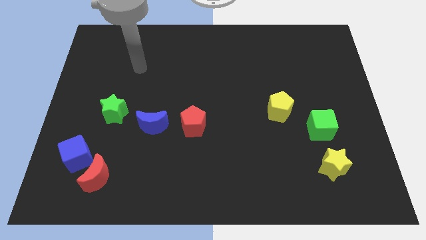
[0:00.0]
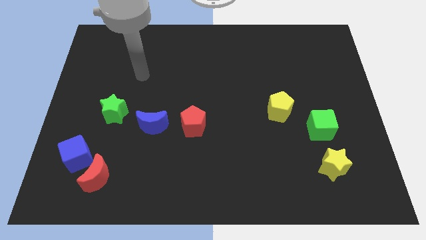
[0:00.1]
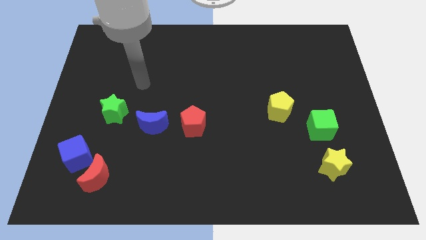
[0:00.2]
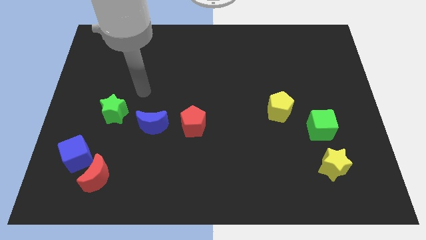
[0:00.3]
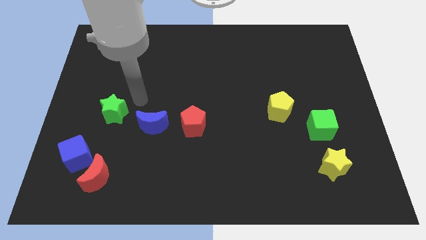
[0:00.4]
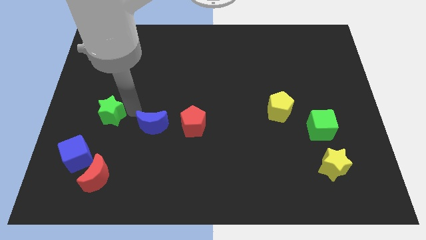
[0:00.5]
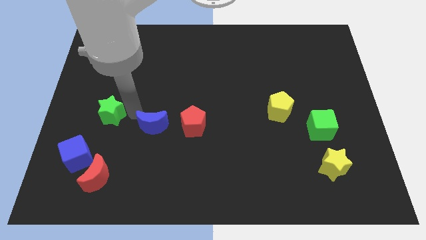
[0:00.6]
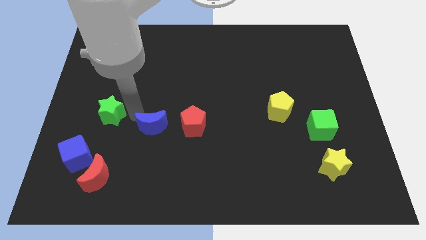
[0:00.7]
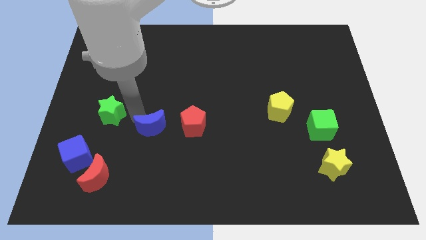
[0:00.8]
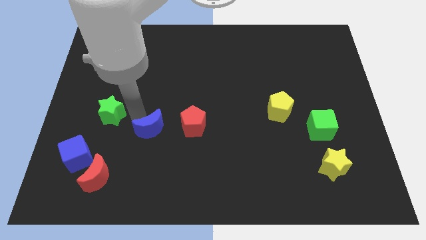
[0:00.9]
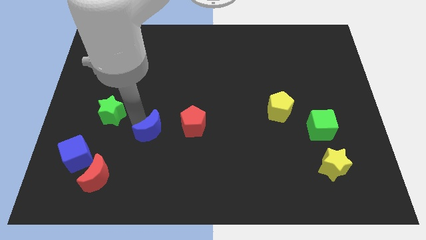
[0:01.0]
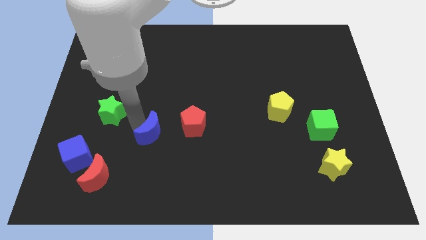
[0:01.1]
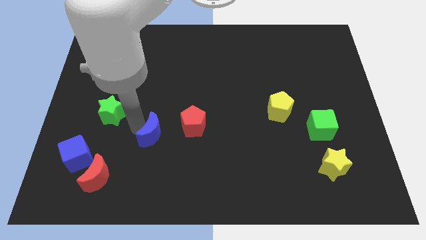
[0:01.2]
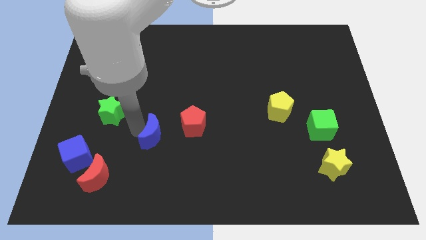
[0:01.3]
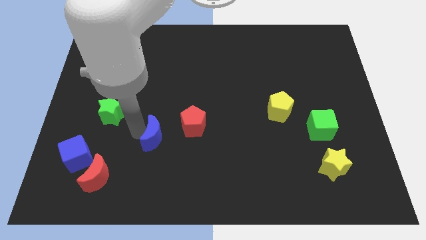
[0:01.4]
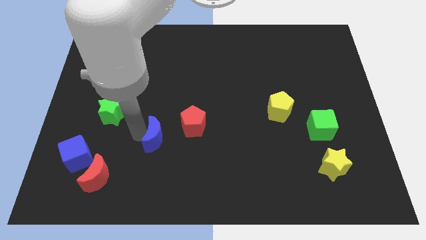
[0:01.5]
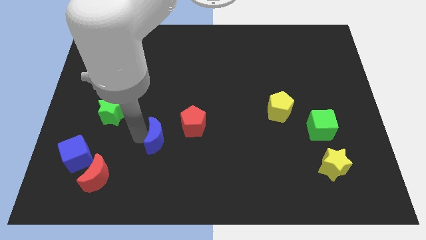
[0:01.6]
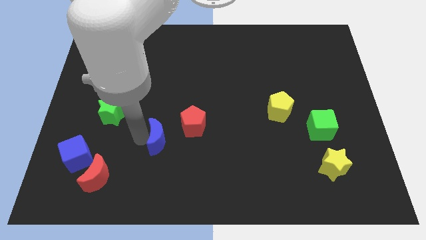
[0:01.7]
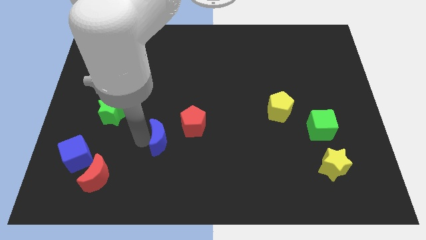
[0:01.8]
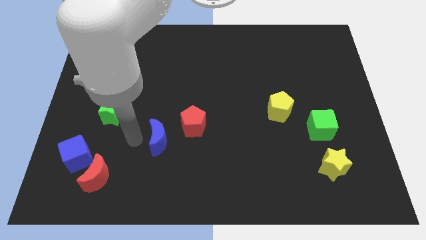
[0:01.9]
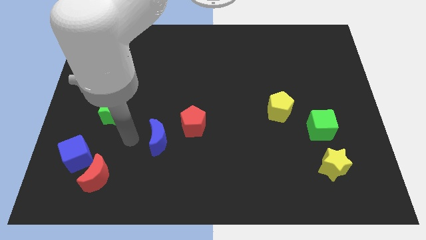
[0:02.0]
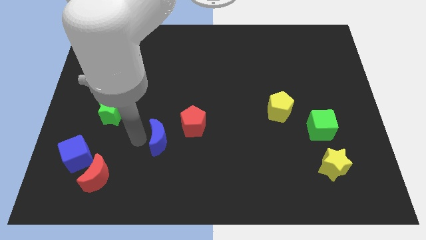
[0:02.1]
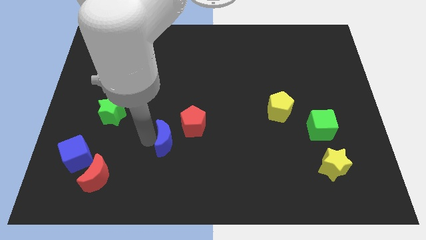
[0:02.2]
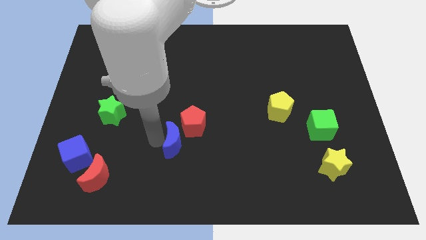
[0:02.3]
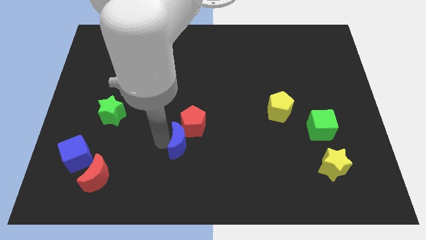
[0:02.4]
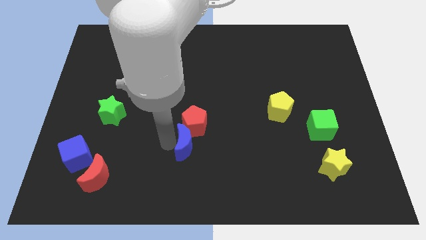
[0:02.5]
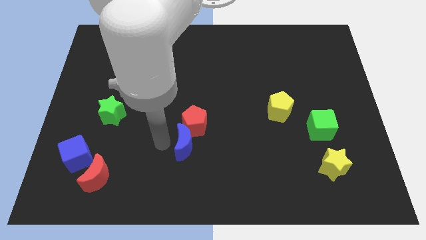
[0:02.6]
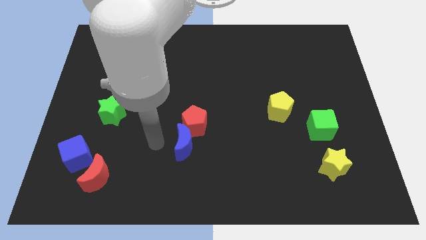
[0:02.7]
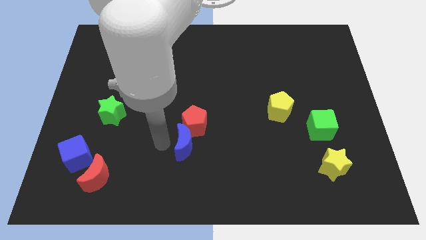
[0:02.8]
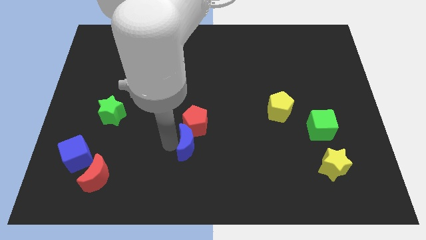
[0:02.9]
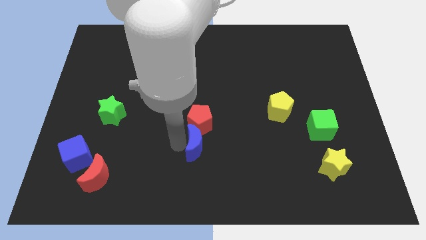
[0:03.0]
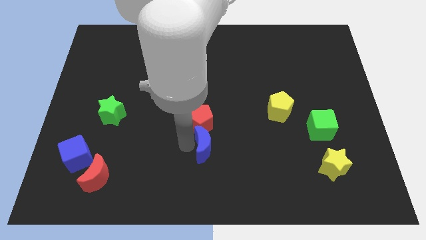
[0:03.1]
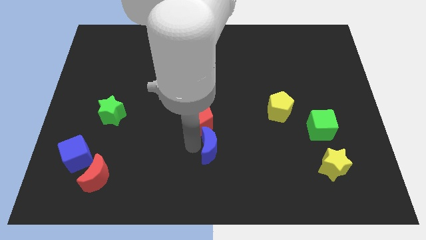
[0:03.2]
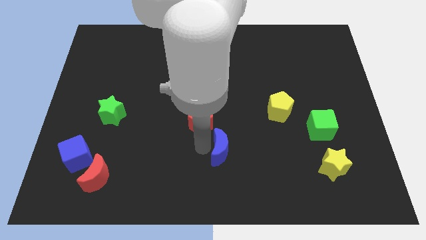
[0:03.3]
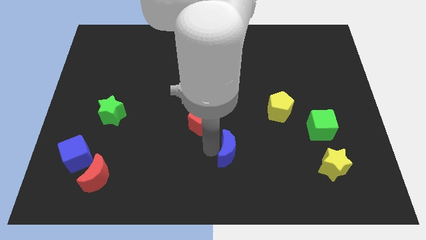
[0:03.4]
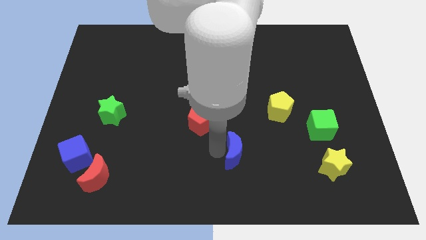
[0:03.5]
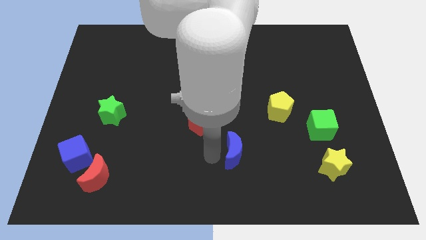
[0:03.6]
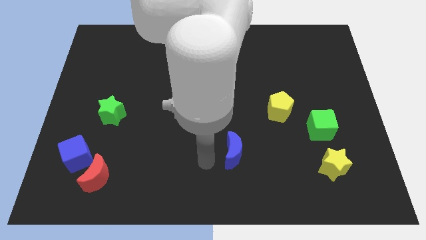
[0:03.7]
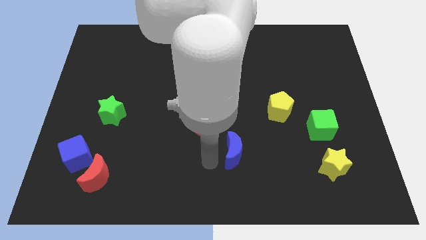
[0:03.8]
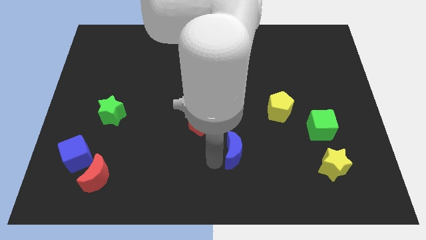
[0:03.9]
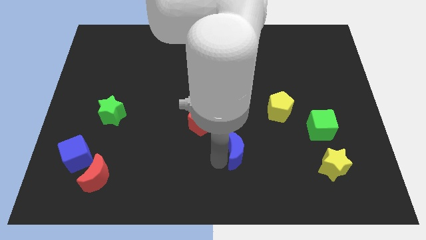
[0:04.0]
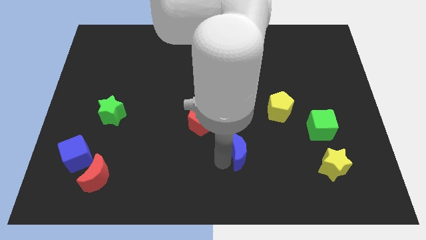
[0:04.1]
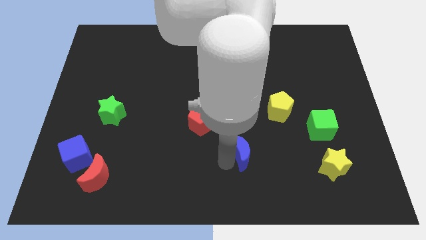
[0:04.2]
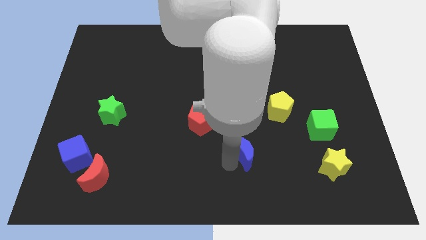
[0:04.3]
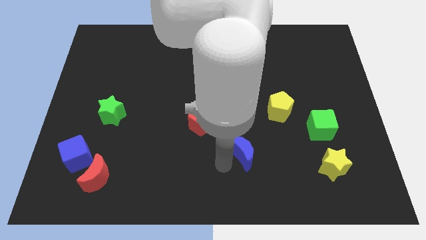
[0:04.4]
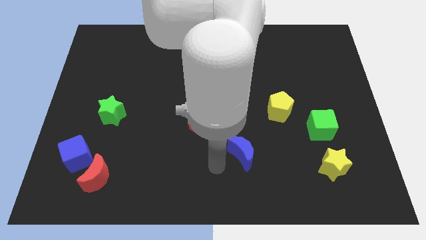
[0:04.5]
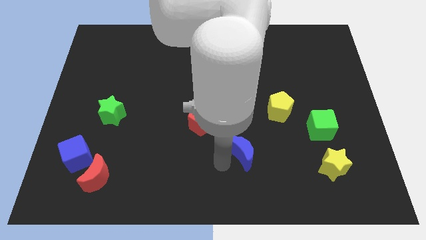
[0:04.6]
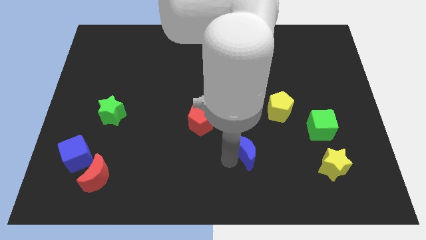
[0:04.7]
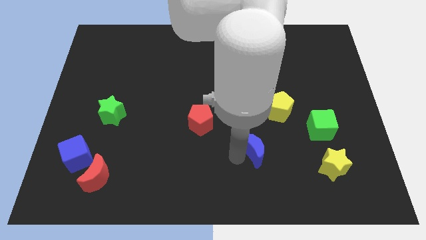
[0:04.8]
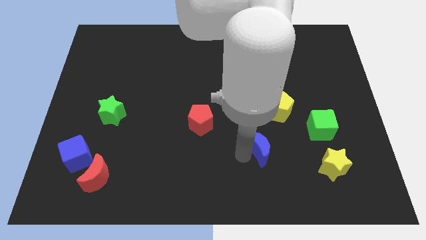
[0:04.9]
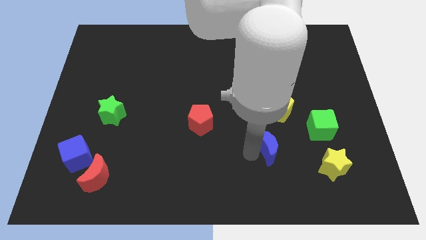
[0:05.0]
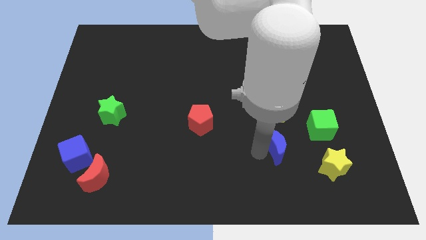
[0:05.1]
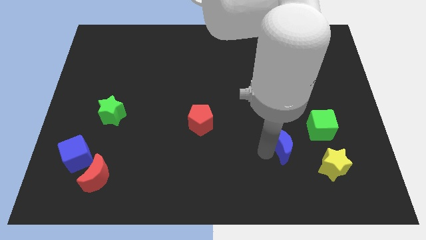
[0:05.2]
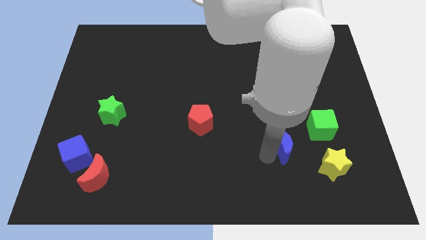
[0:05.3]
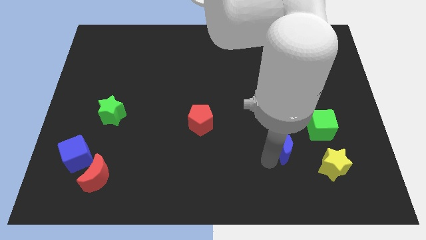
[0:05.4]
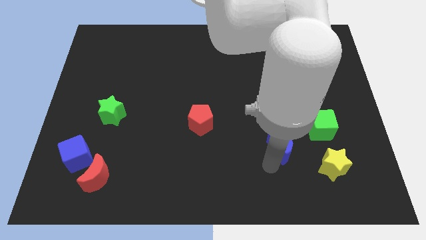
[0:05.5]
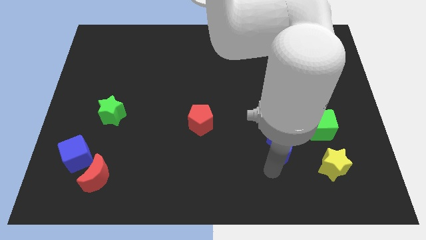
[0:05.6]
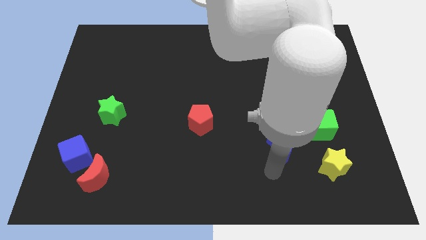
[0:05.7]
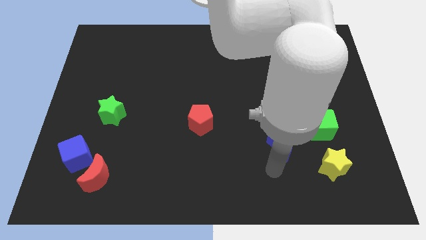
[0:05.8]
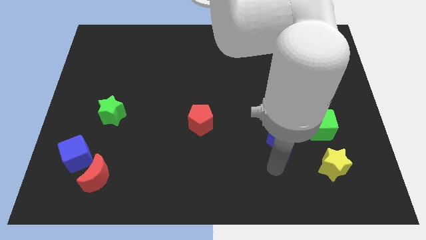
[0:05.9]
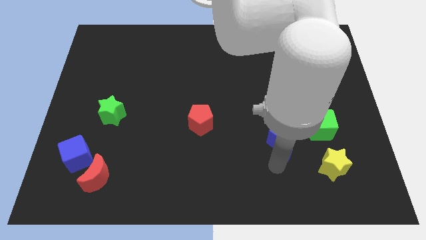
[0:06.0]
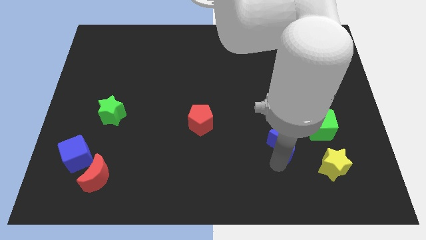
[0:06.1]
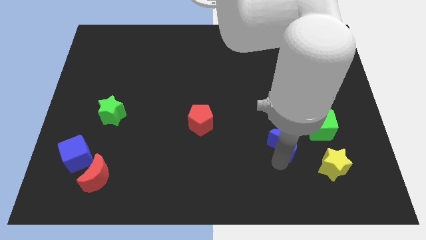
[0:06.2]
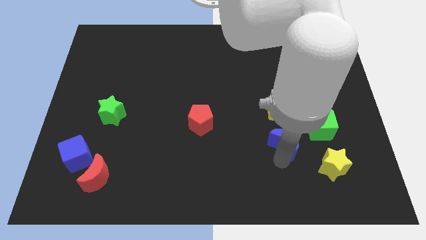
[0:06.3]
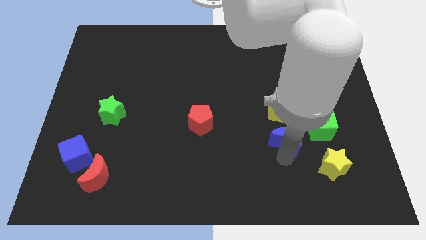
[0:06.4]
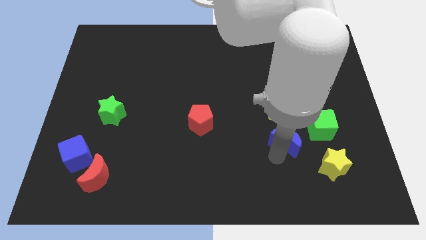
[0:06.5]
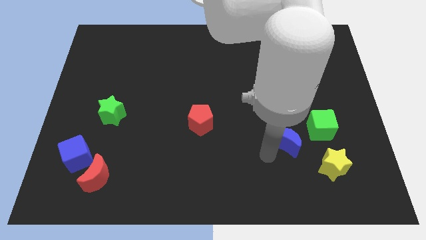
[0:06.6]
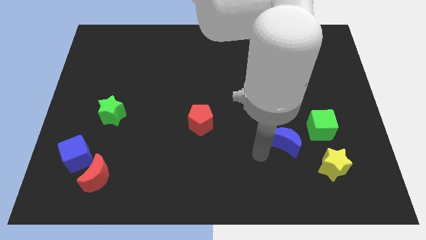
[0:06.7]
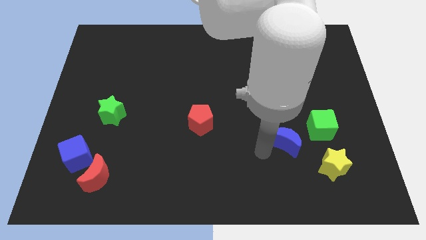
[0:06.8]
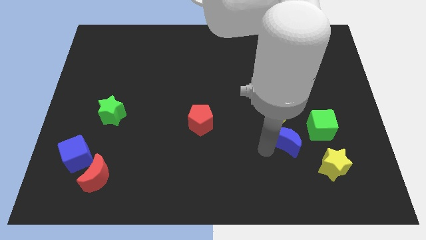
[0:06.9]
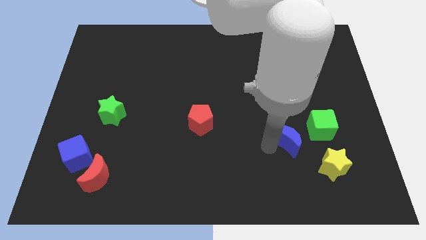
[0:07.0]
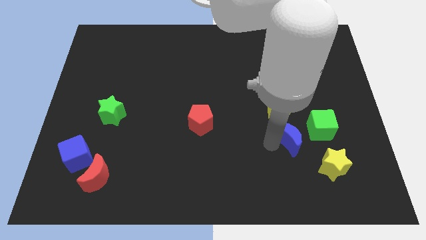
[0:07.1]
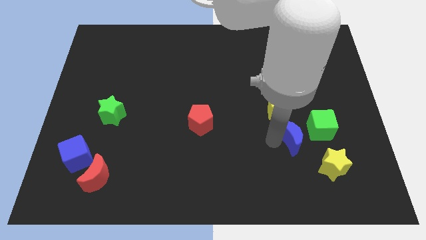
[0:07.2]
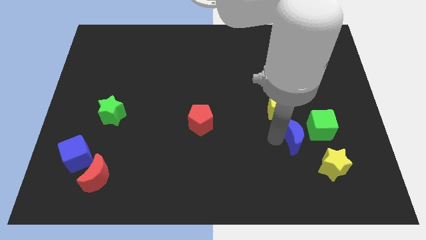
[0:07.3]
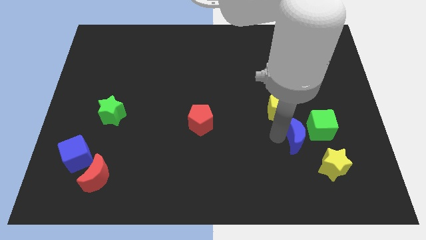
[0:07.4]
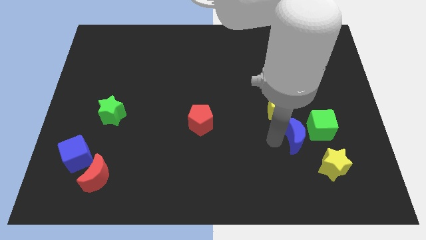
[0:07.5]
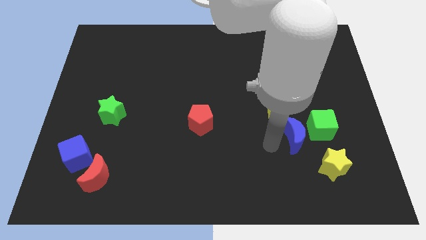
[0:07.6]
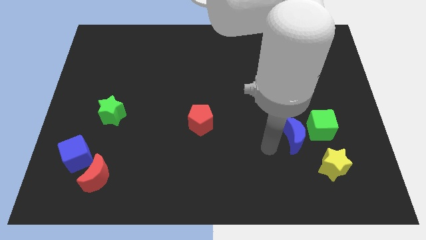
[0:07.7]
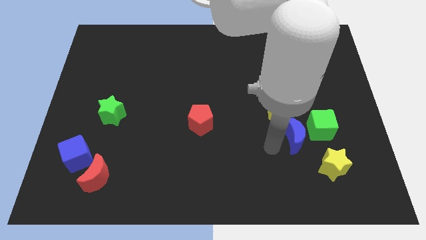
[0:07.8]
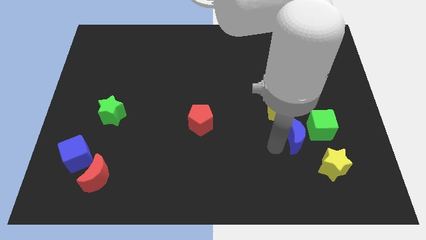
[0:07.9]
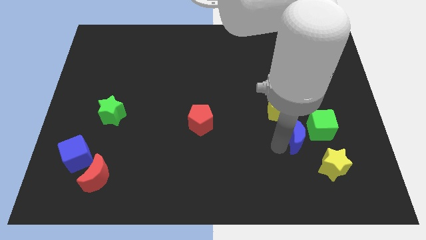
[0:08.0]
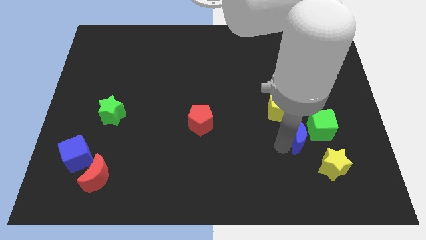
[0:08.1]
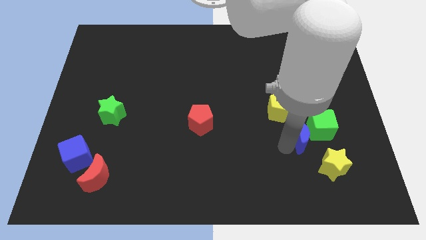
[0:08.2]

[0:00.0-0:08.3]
slide the blue moon close to the green cube
